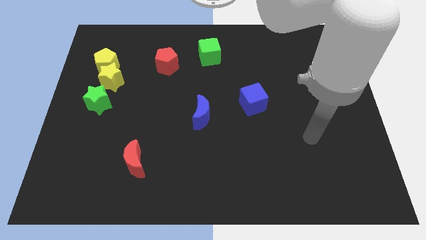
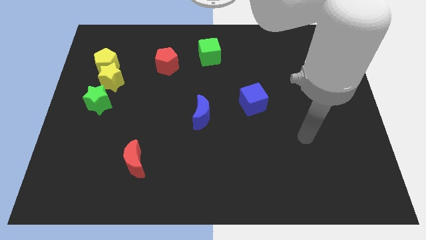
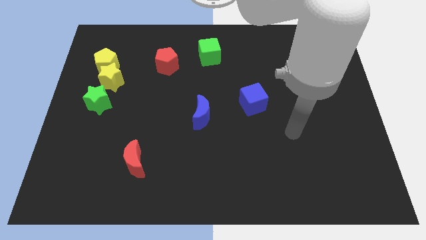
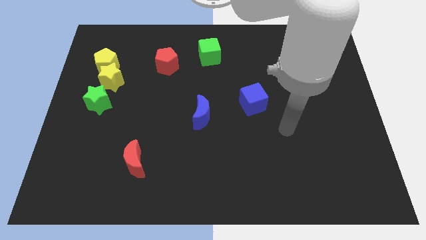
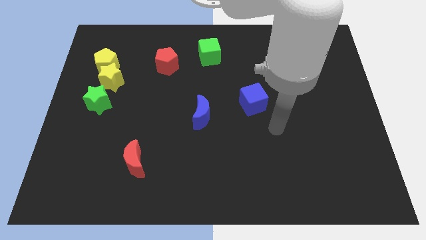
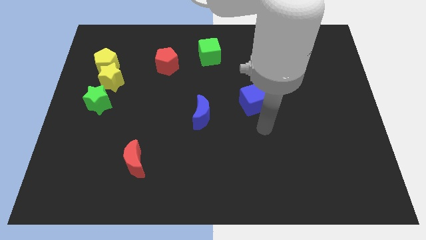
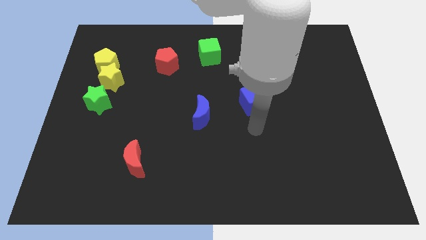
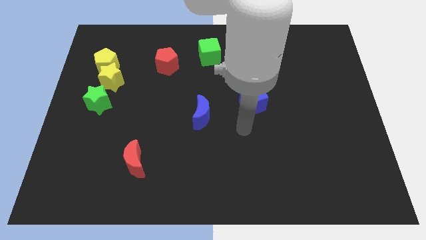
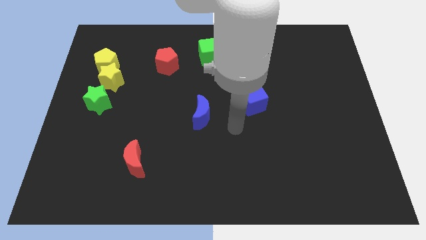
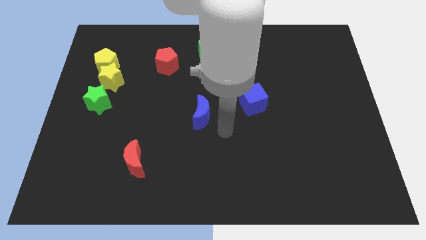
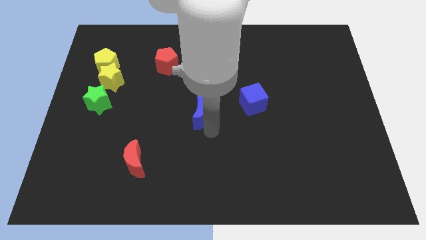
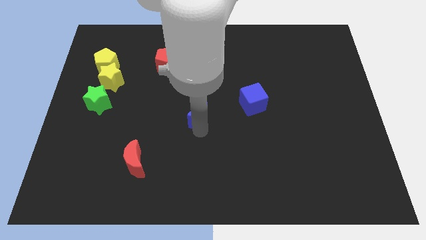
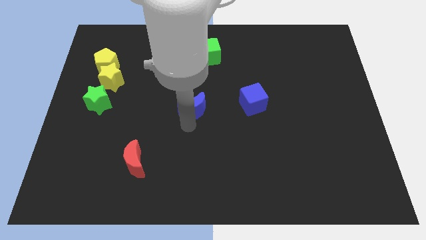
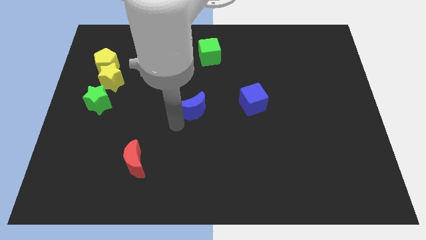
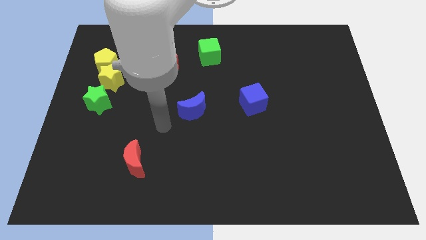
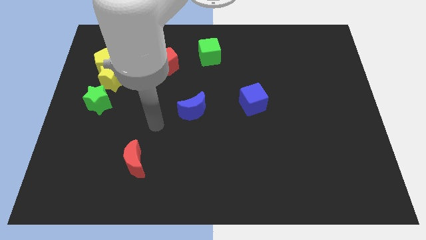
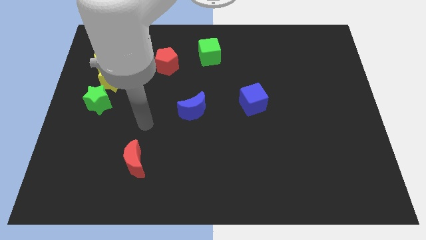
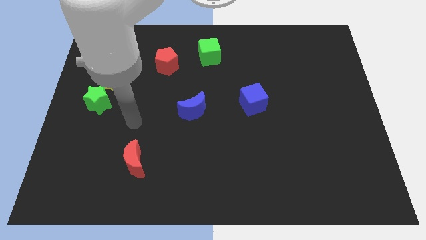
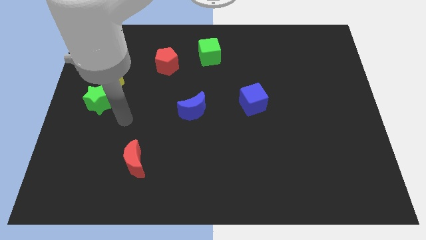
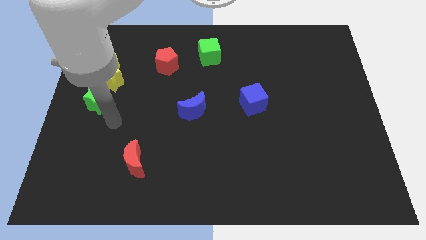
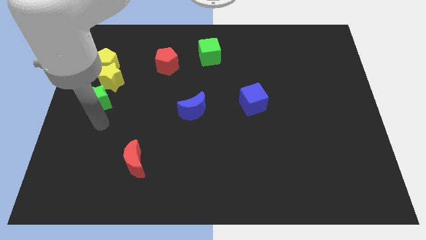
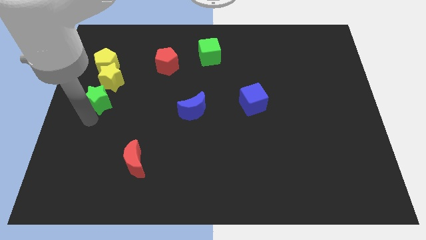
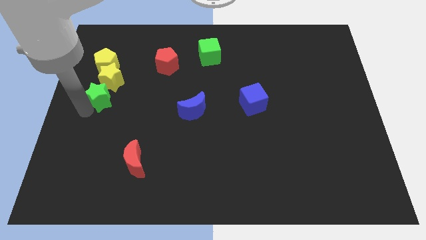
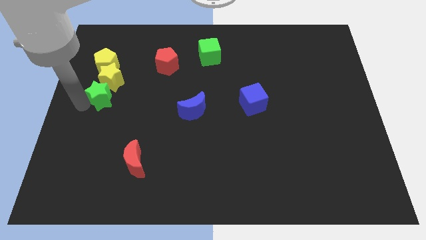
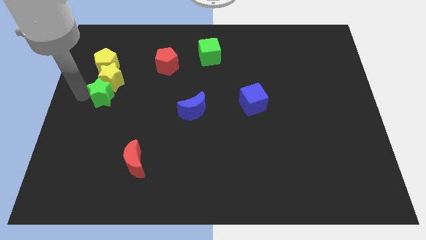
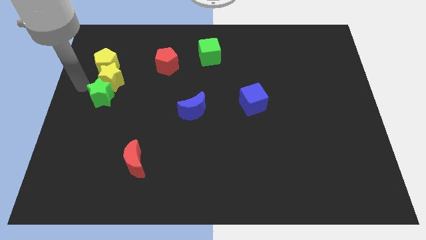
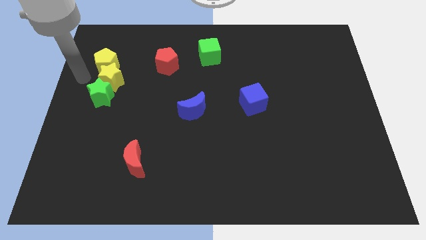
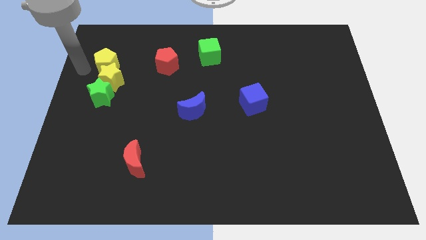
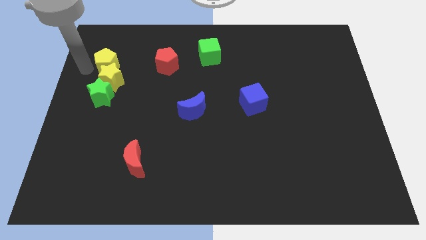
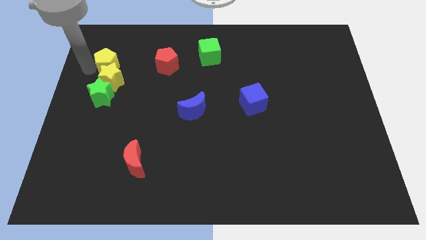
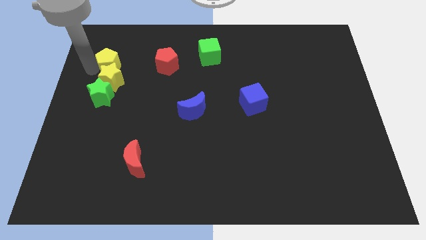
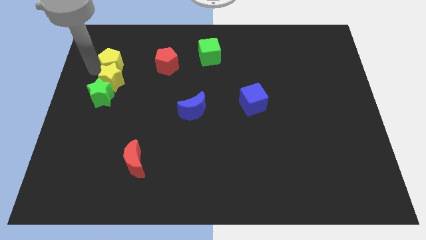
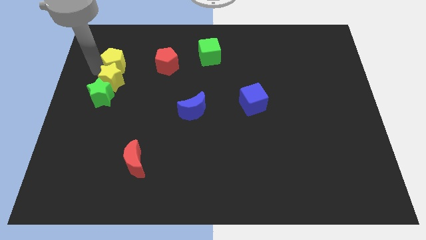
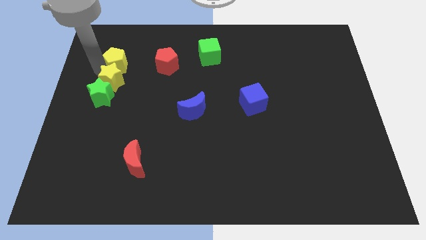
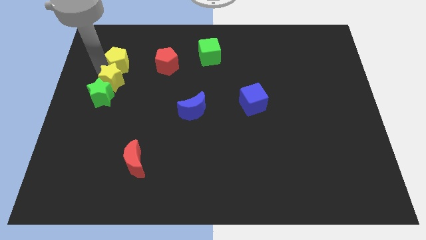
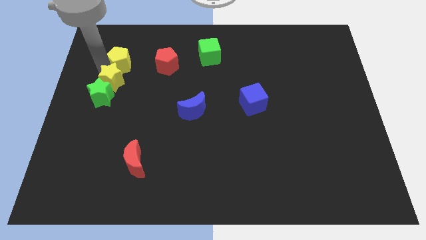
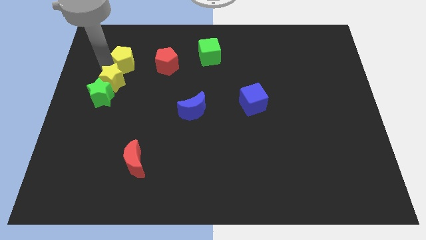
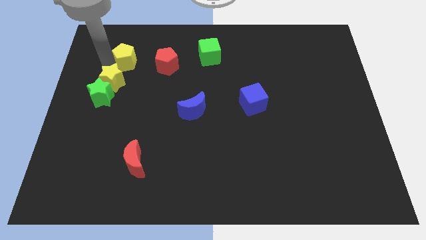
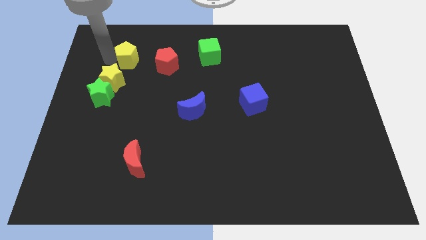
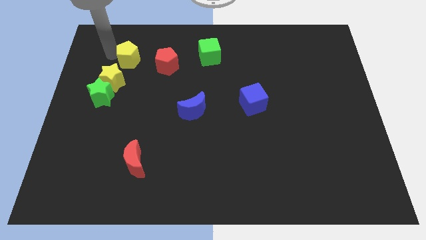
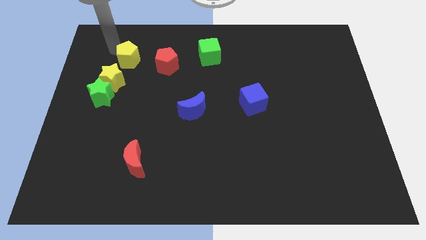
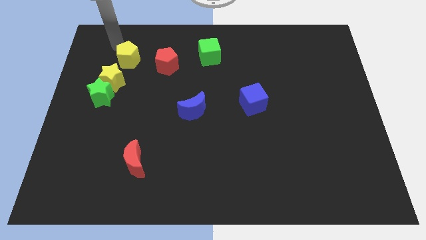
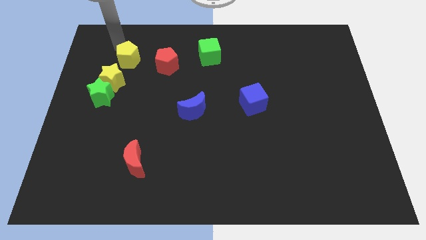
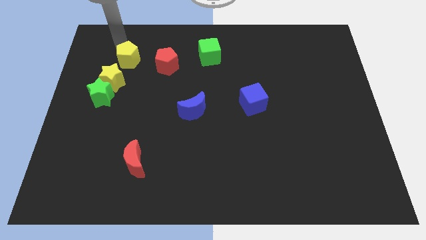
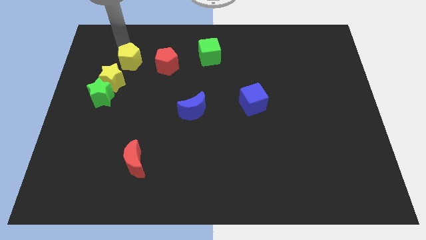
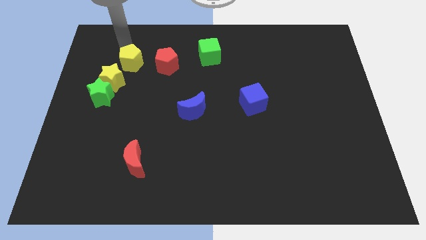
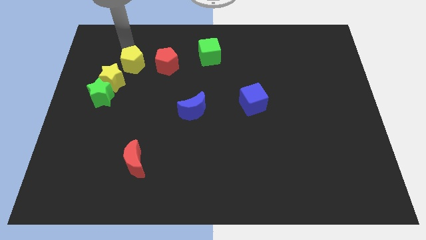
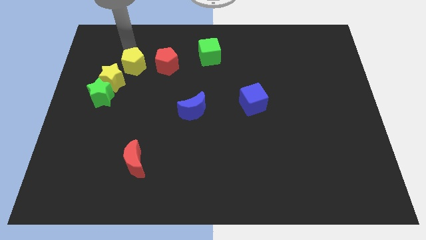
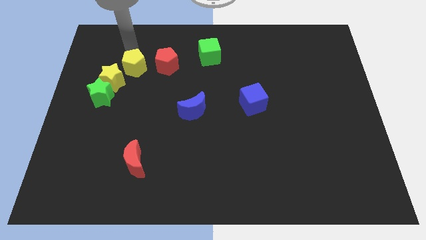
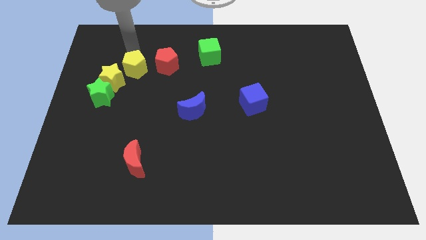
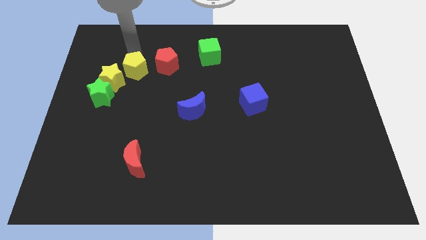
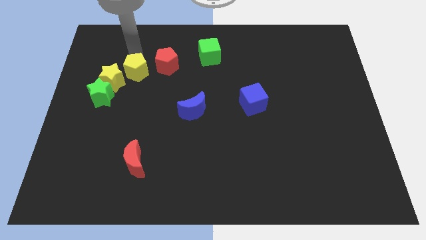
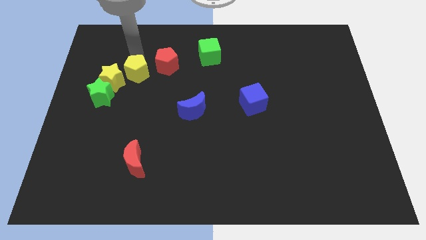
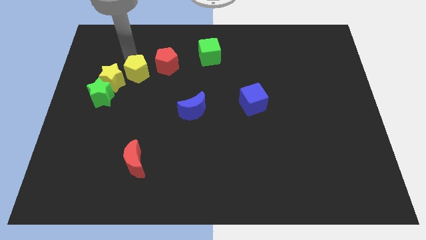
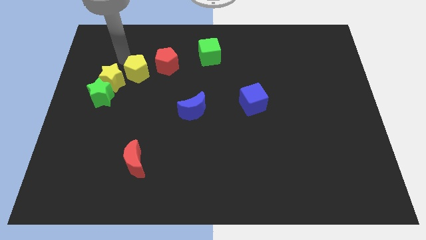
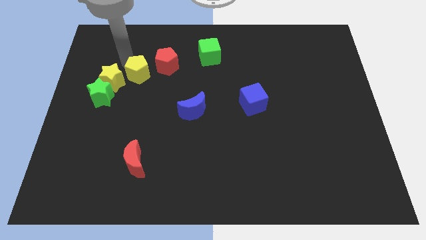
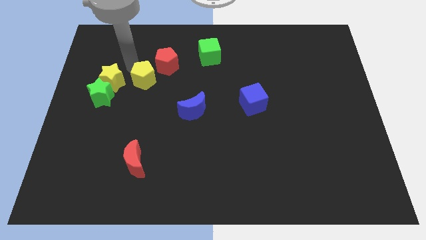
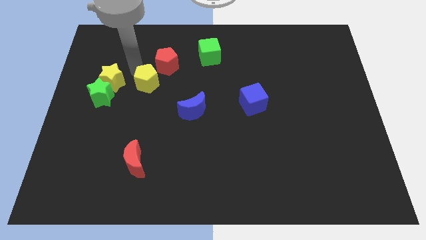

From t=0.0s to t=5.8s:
push the yellow pentagon to the bottom of the red pentagon
